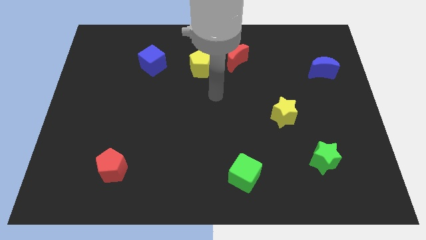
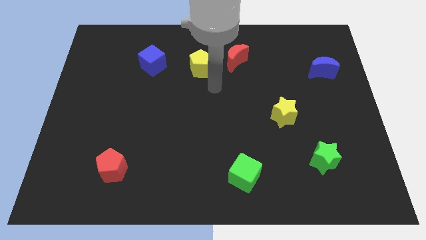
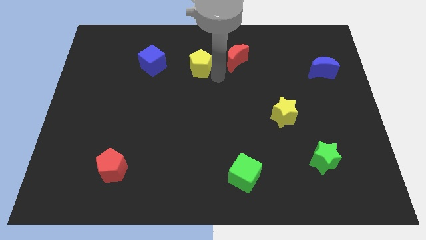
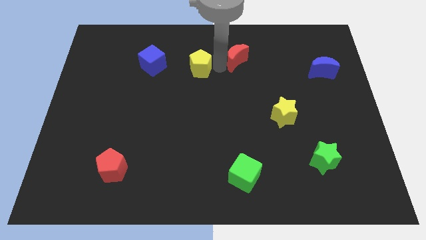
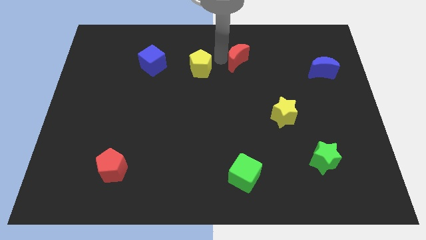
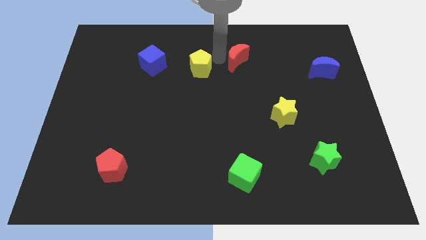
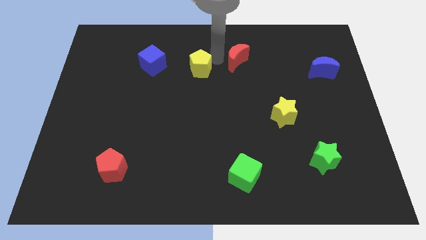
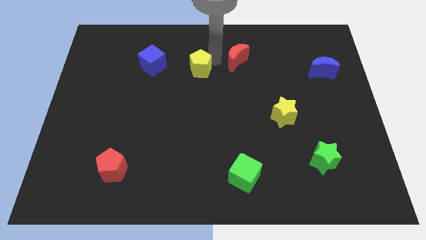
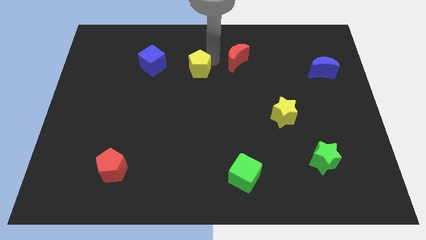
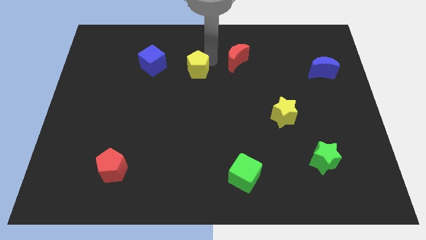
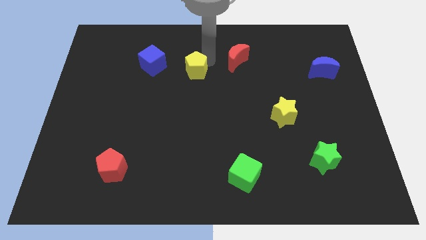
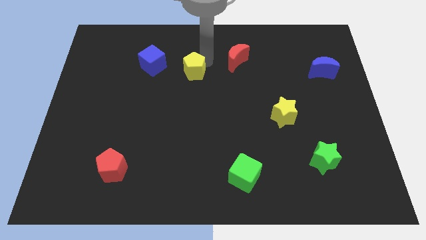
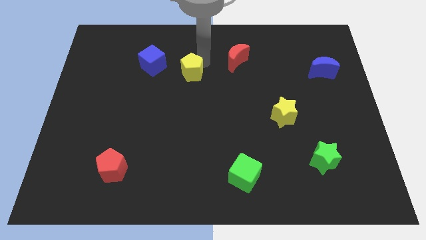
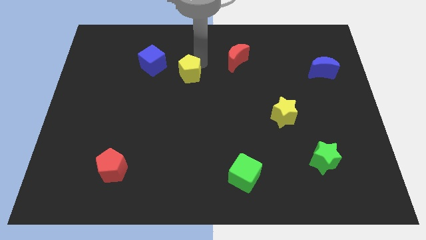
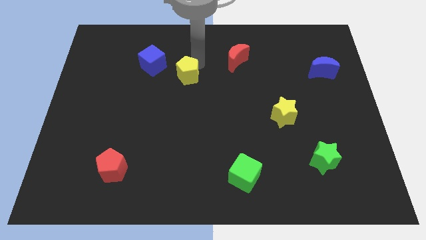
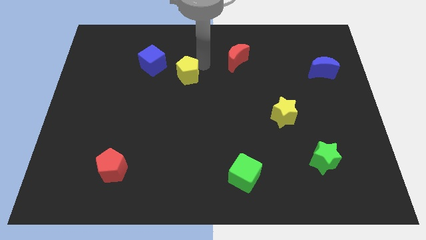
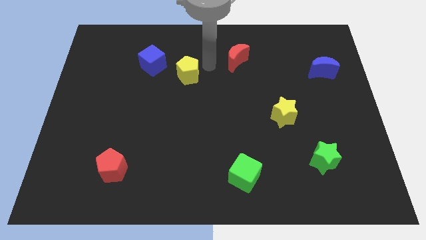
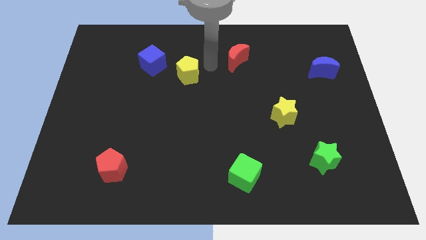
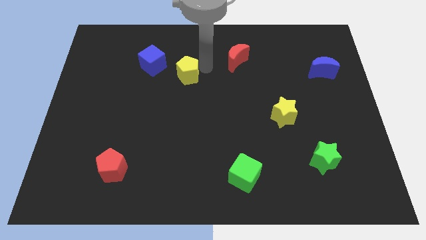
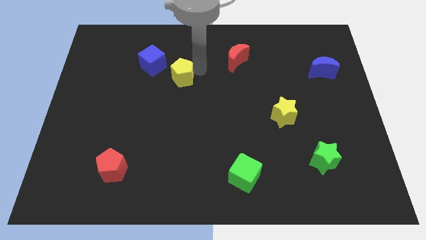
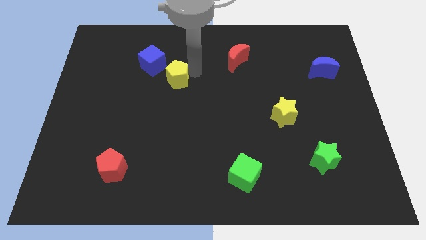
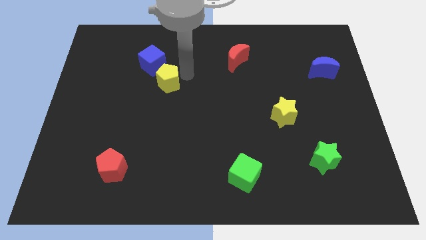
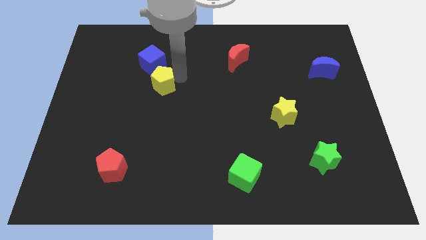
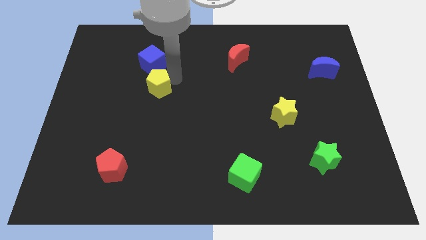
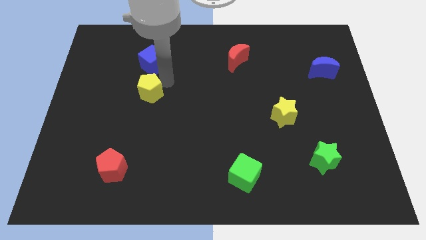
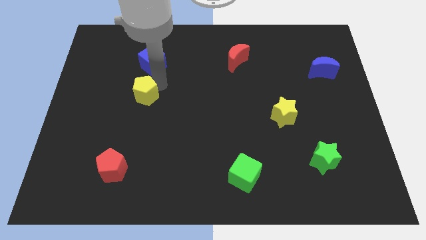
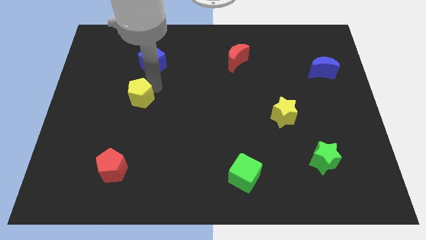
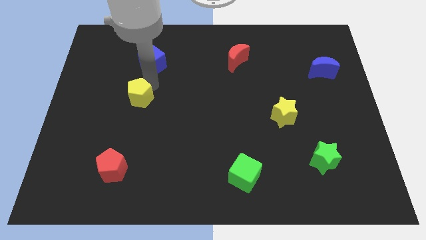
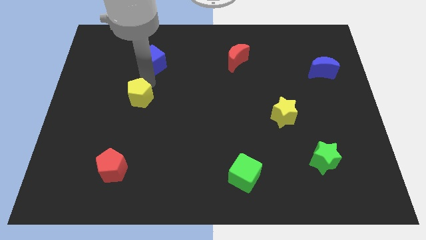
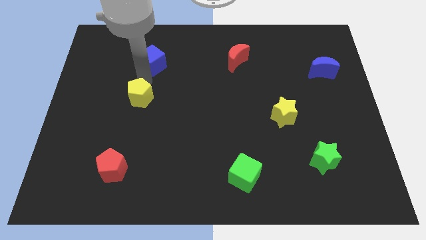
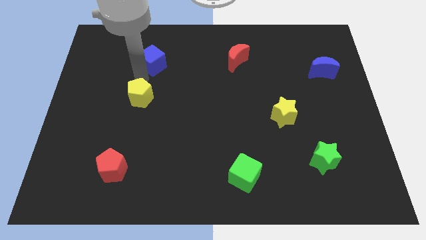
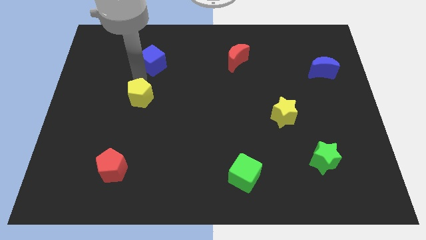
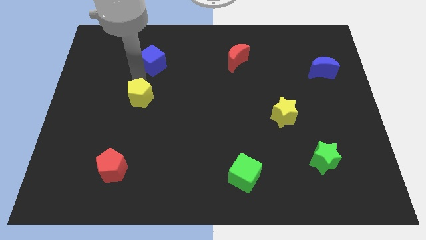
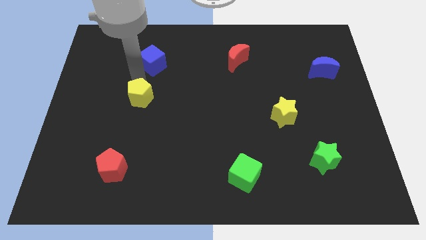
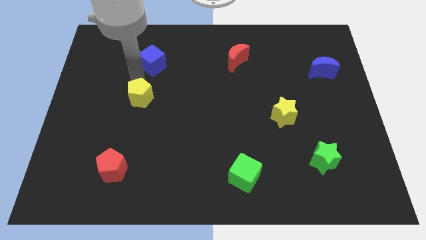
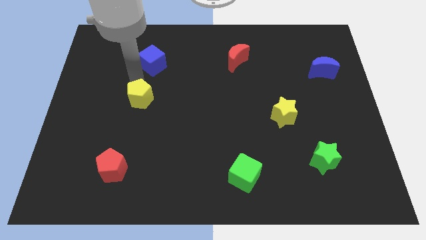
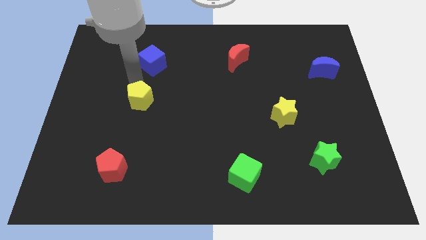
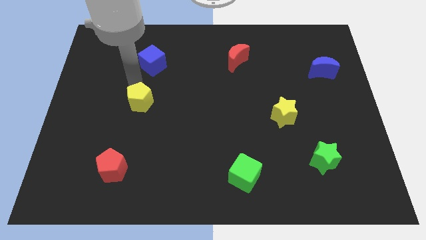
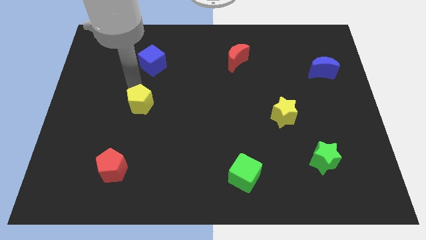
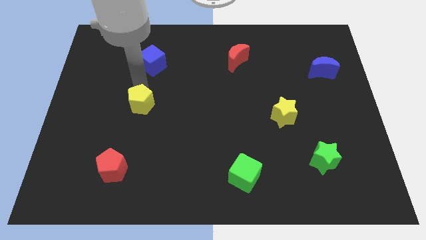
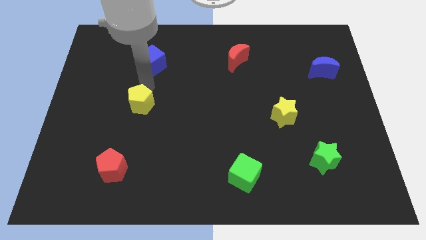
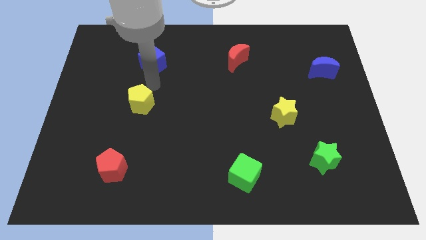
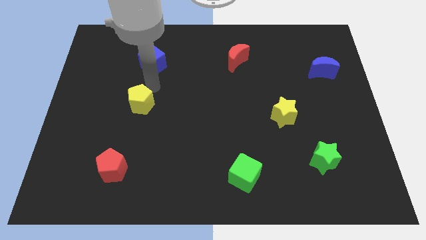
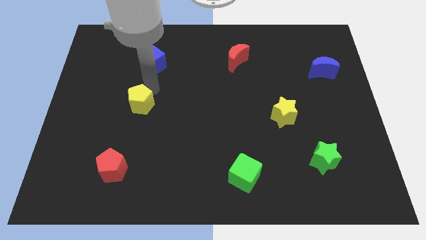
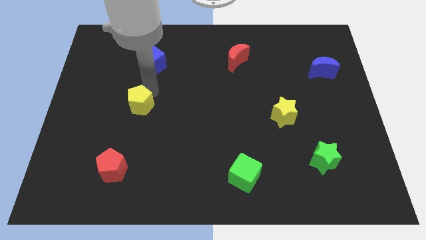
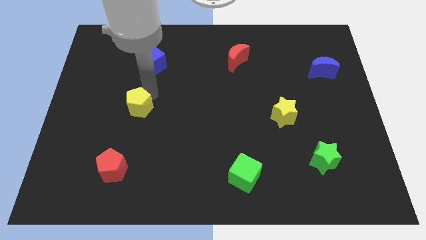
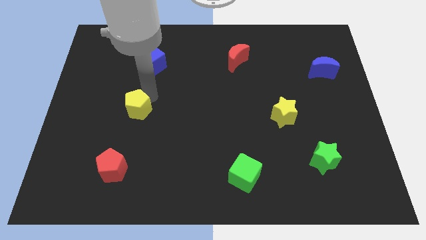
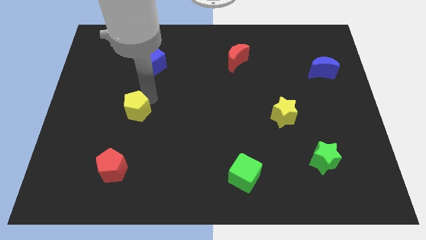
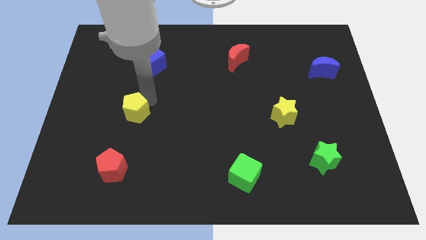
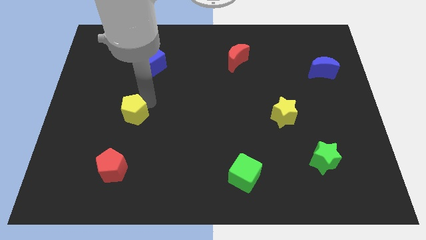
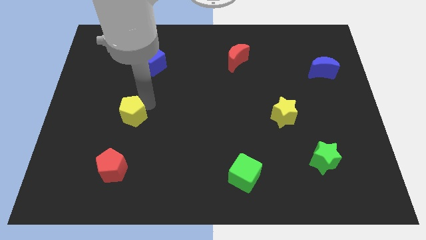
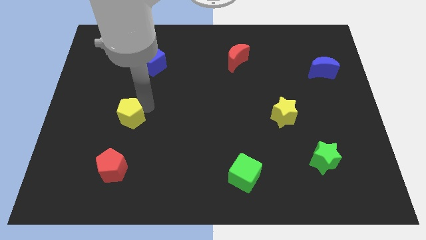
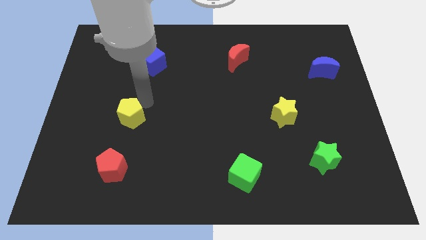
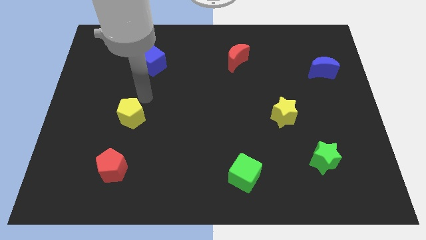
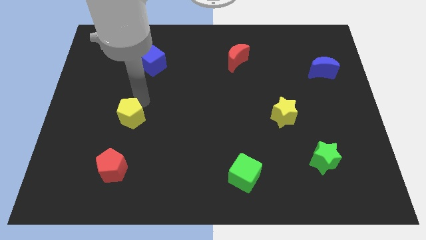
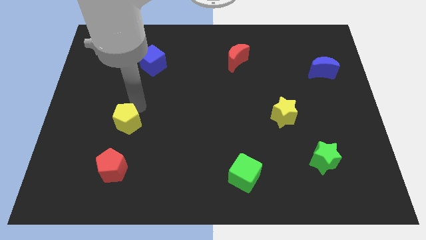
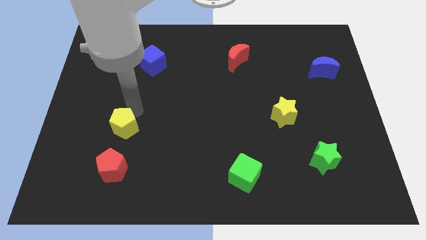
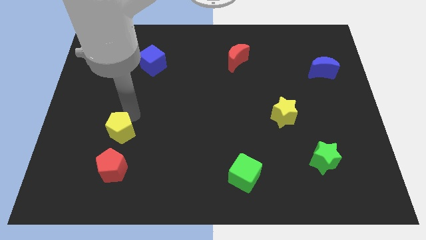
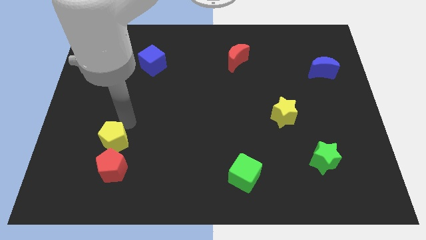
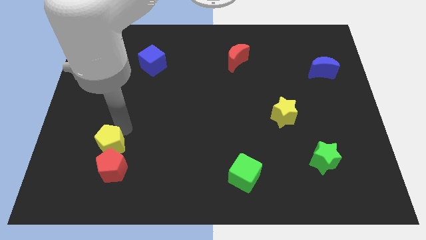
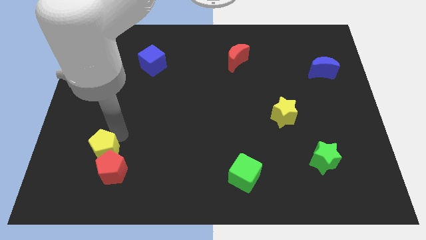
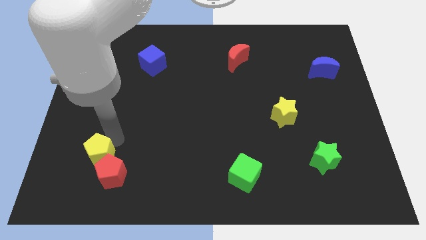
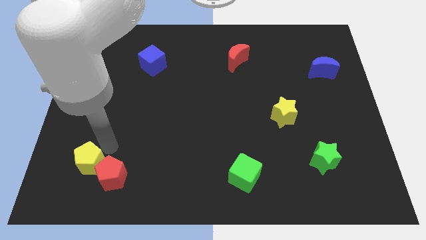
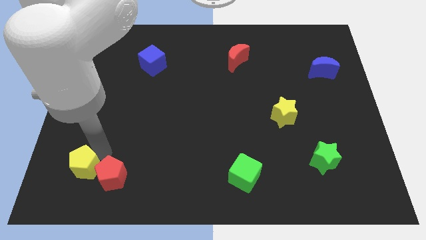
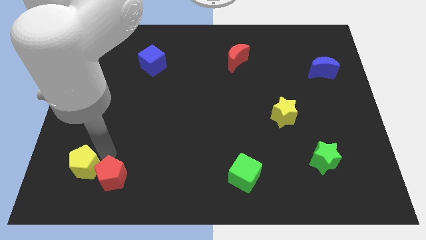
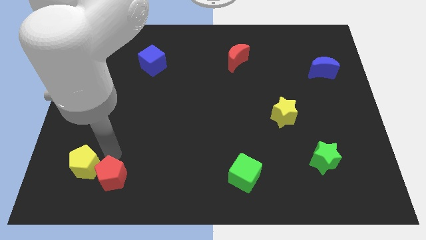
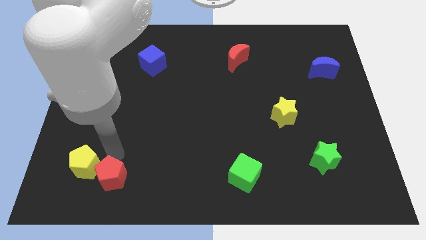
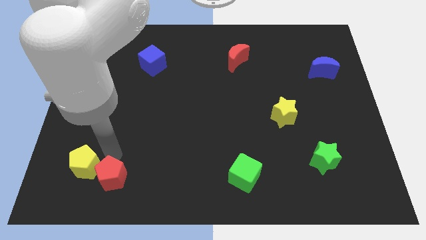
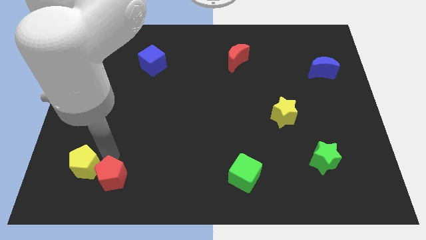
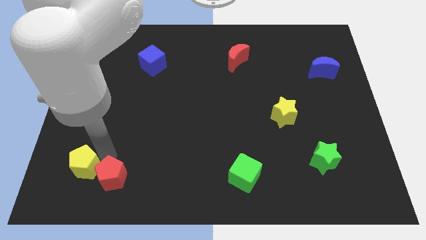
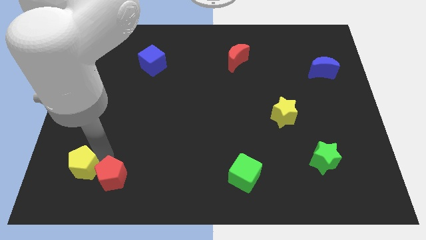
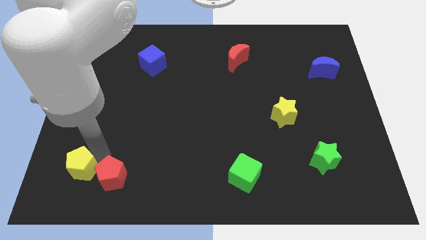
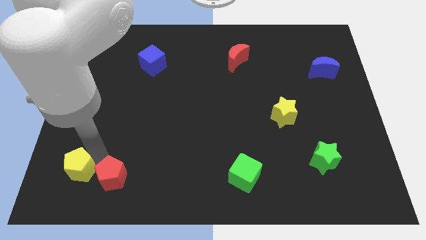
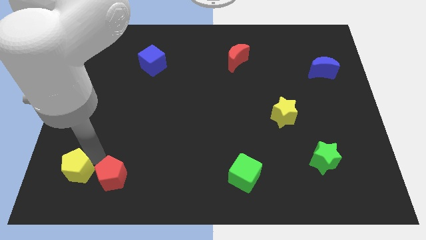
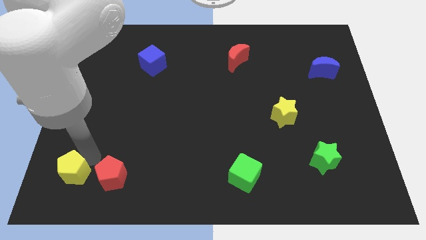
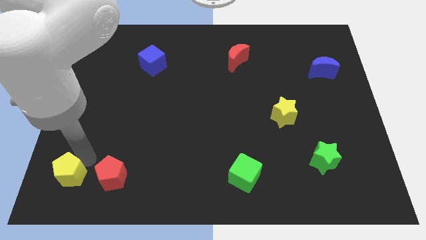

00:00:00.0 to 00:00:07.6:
move the yellow pentagon to the bottom left of the board
